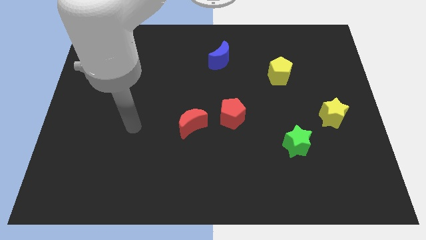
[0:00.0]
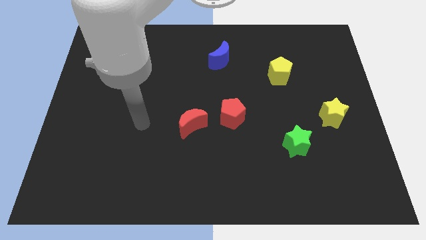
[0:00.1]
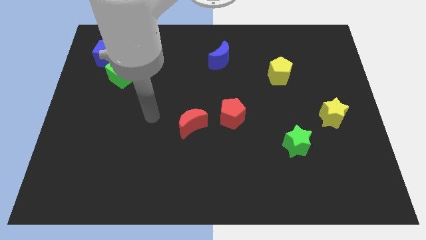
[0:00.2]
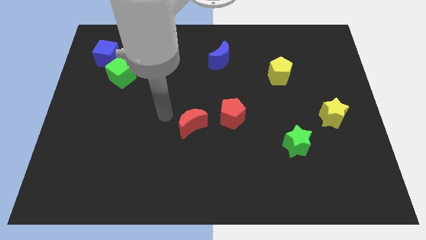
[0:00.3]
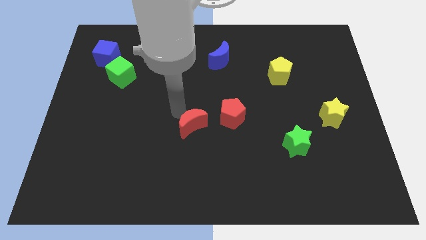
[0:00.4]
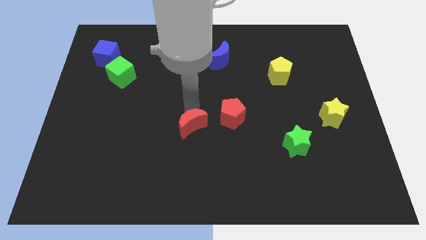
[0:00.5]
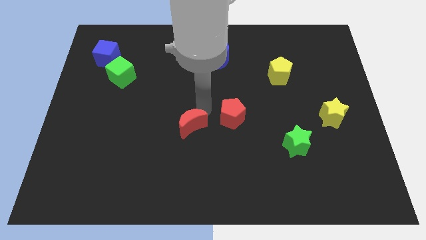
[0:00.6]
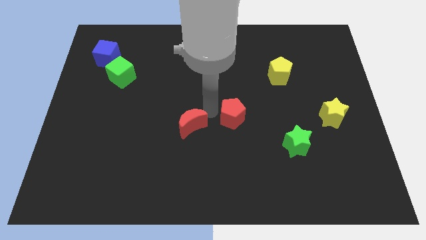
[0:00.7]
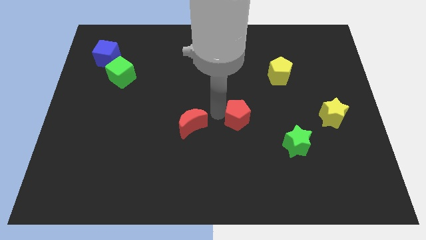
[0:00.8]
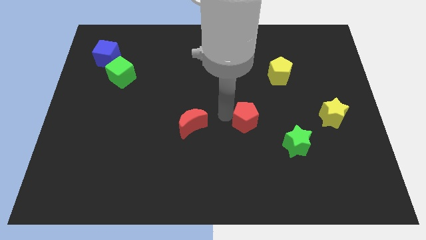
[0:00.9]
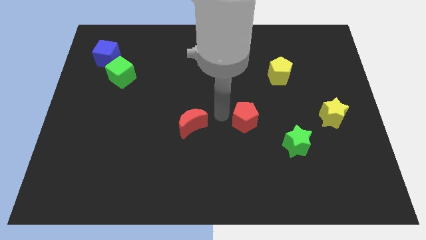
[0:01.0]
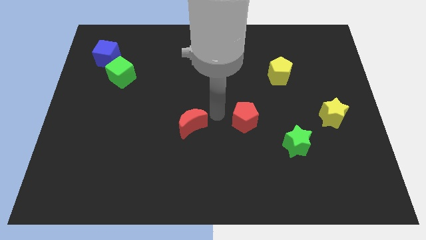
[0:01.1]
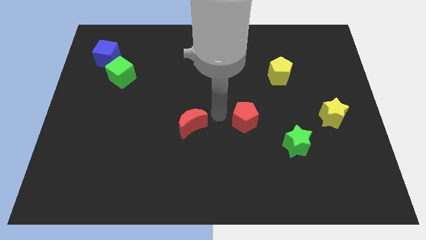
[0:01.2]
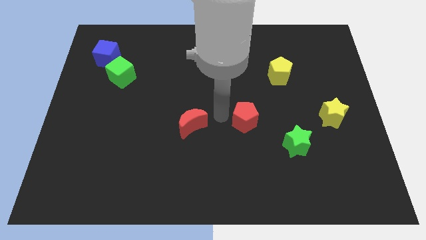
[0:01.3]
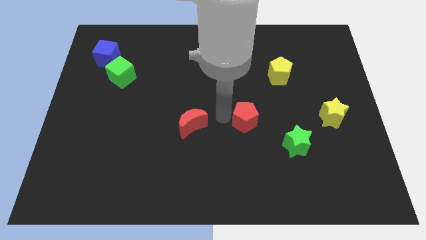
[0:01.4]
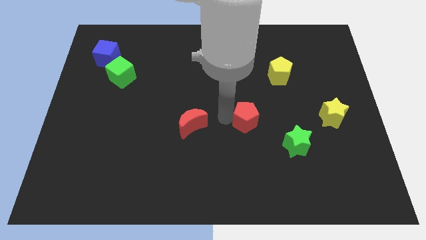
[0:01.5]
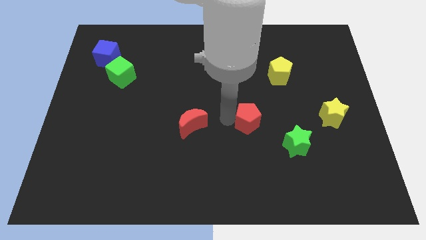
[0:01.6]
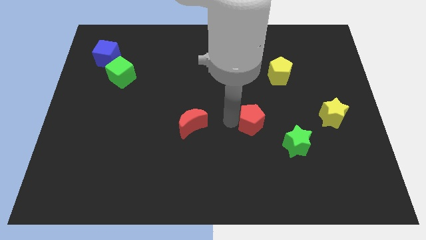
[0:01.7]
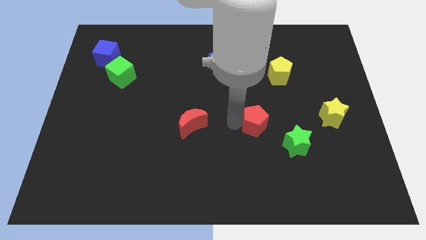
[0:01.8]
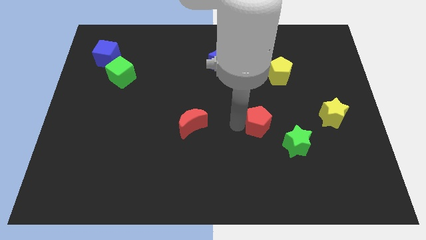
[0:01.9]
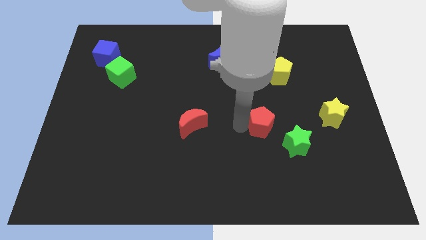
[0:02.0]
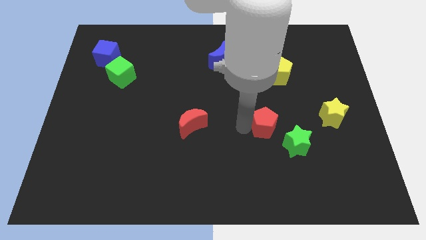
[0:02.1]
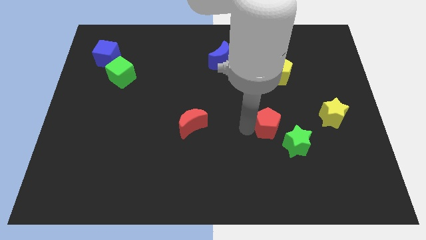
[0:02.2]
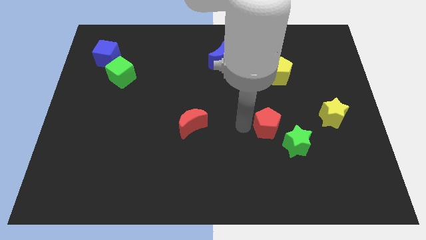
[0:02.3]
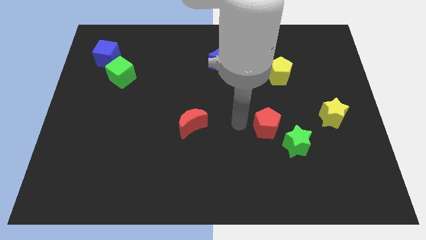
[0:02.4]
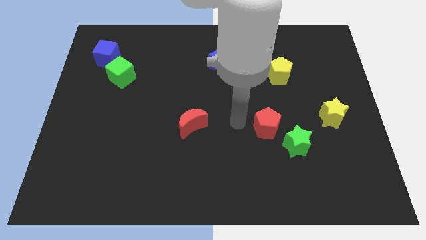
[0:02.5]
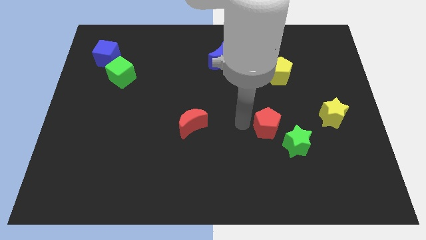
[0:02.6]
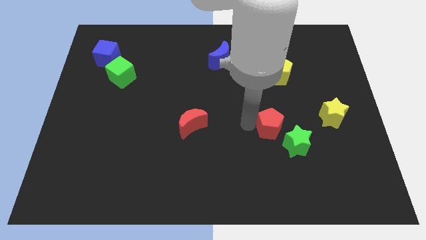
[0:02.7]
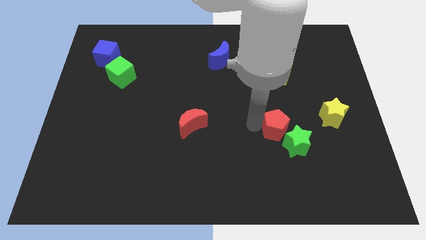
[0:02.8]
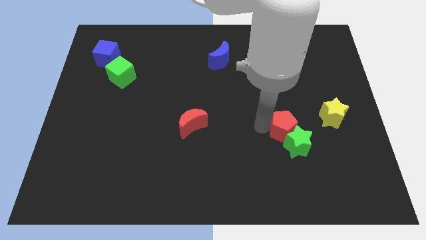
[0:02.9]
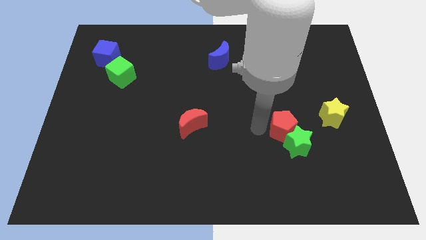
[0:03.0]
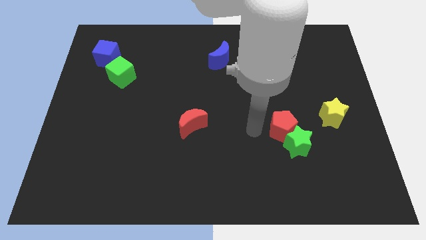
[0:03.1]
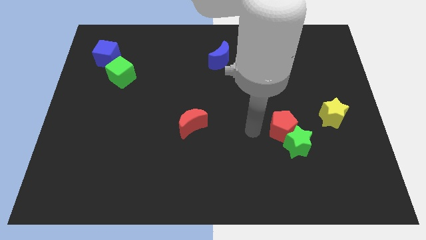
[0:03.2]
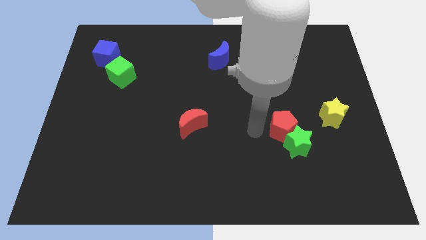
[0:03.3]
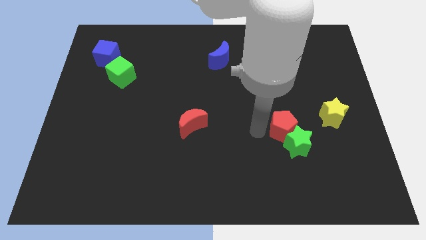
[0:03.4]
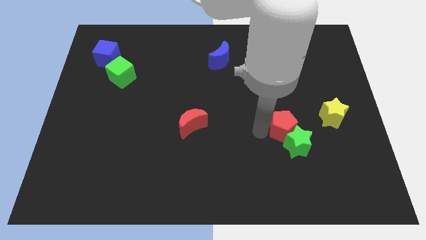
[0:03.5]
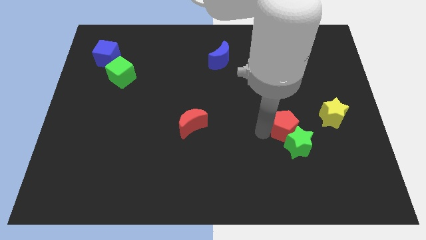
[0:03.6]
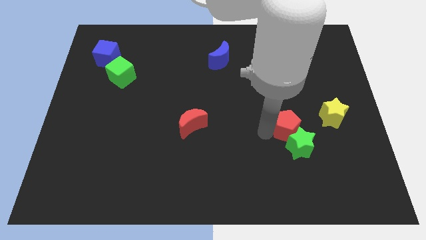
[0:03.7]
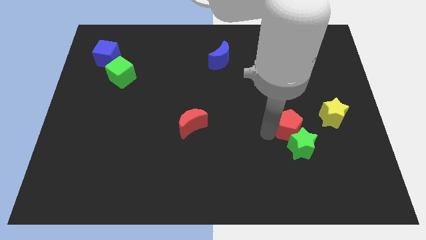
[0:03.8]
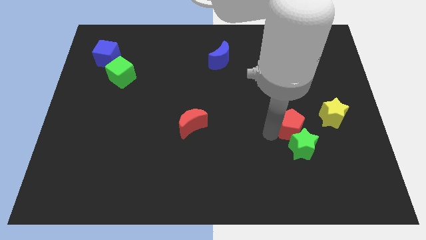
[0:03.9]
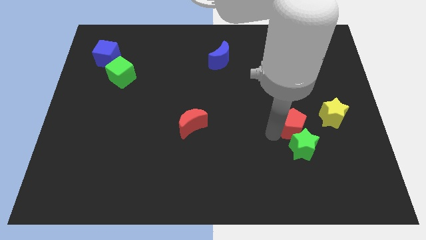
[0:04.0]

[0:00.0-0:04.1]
move the red pentagon diagonally down and to the left of the yellow star

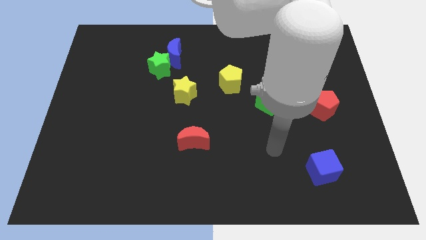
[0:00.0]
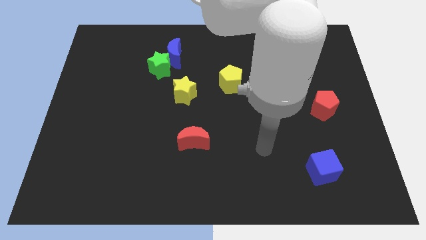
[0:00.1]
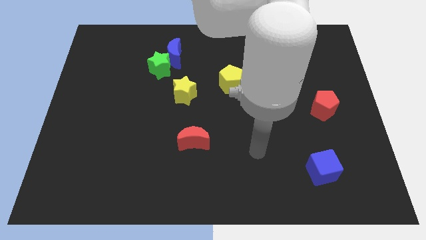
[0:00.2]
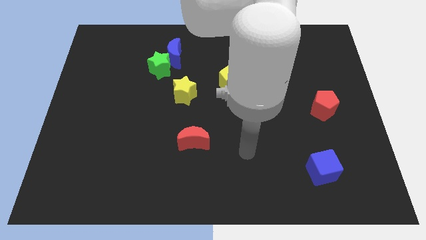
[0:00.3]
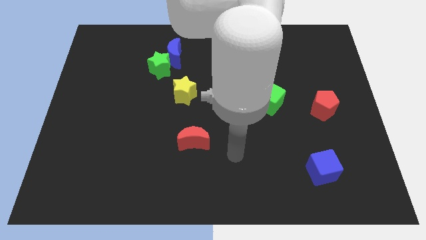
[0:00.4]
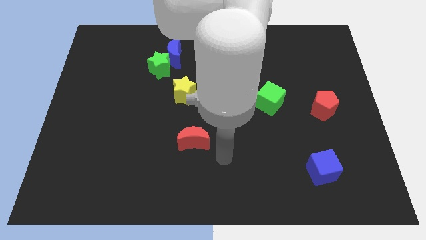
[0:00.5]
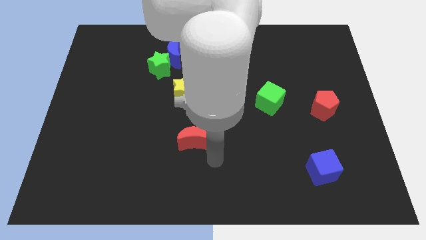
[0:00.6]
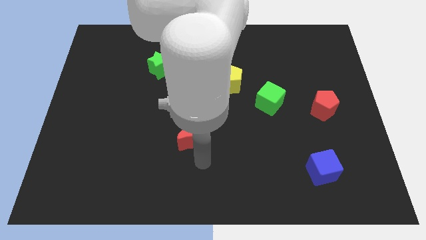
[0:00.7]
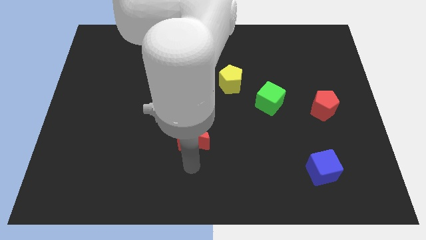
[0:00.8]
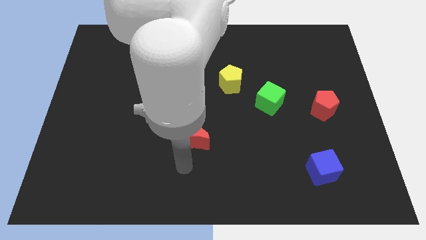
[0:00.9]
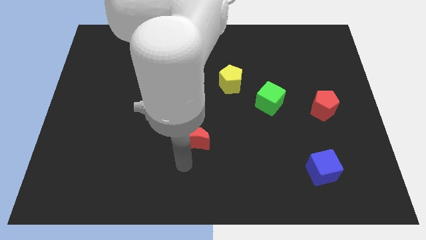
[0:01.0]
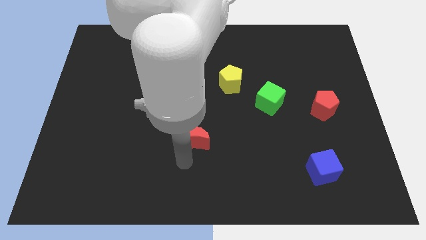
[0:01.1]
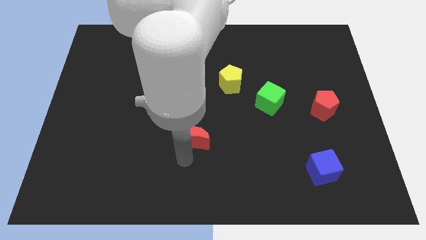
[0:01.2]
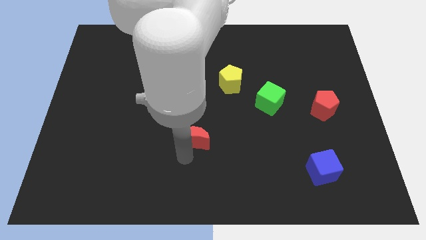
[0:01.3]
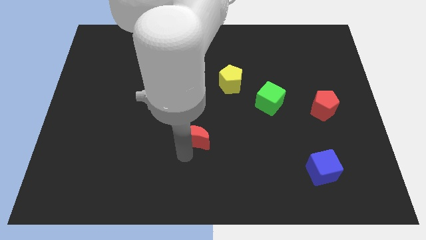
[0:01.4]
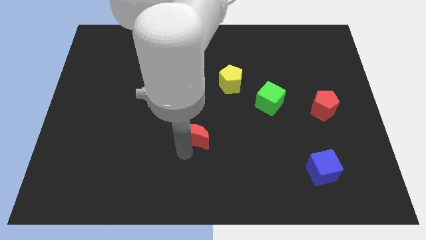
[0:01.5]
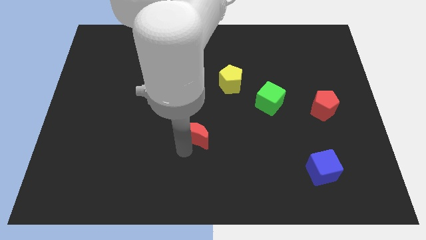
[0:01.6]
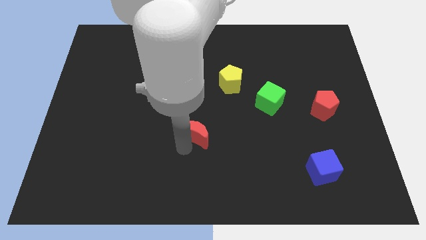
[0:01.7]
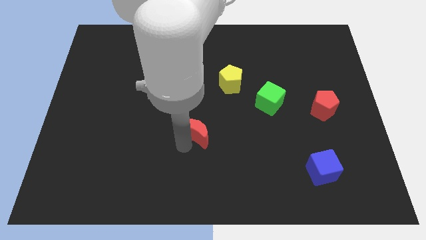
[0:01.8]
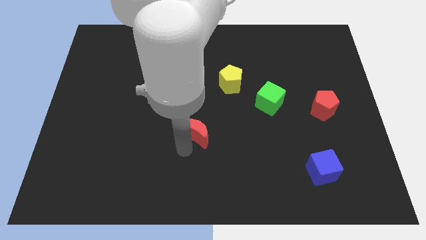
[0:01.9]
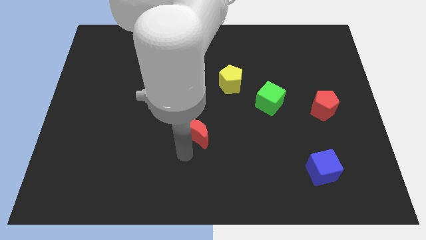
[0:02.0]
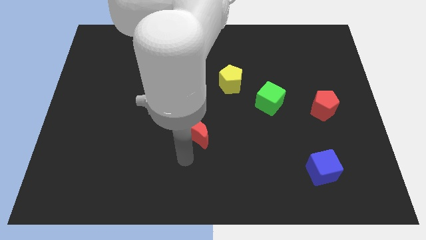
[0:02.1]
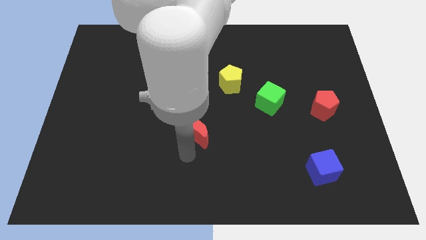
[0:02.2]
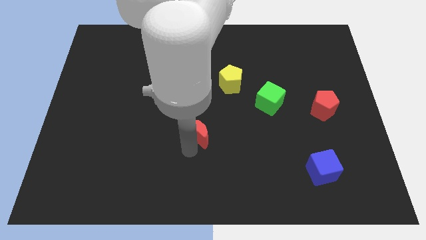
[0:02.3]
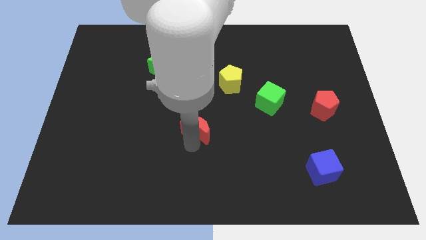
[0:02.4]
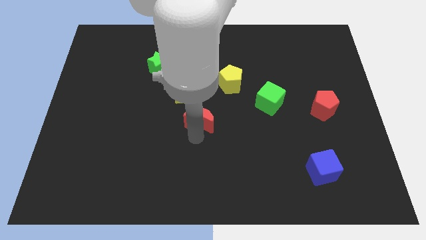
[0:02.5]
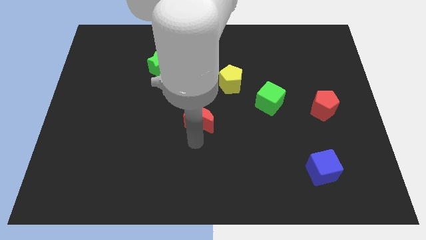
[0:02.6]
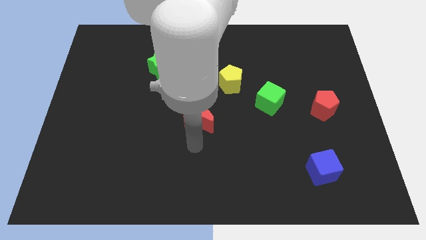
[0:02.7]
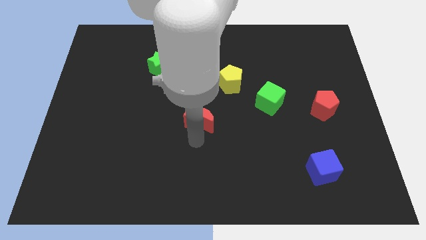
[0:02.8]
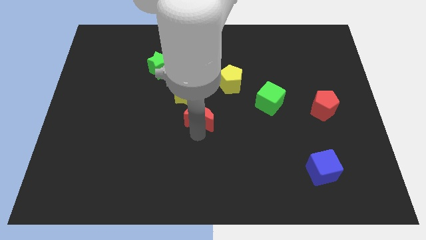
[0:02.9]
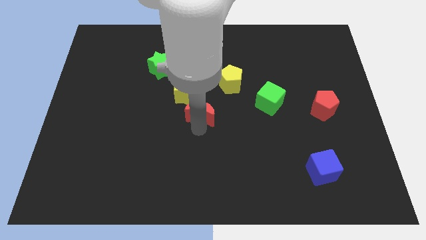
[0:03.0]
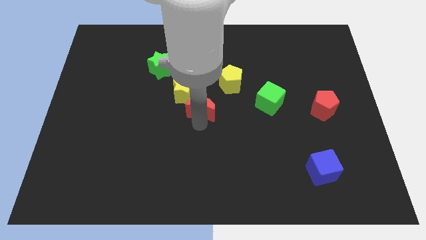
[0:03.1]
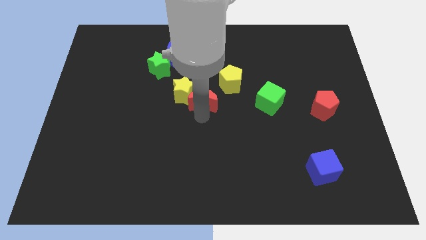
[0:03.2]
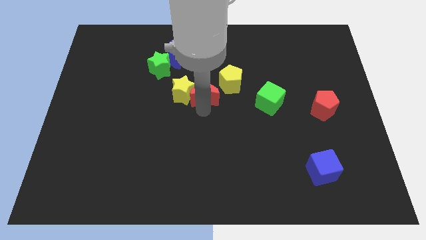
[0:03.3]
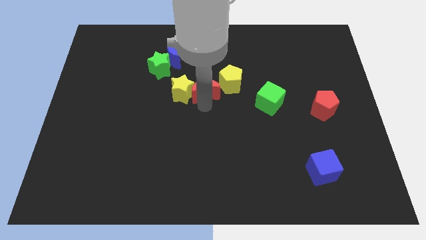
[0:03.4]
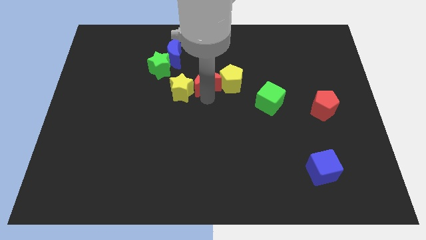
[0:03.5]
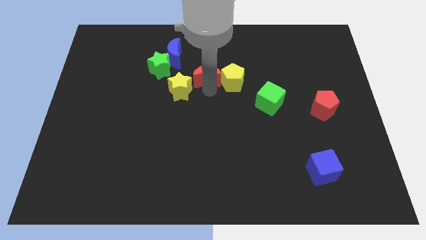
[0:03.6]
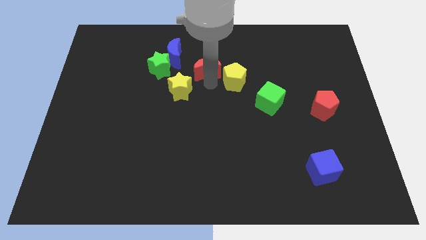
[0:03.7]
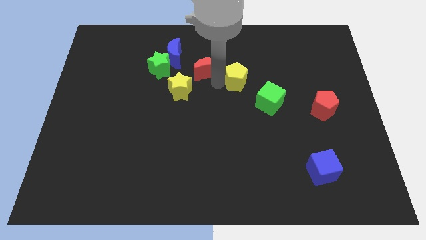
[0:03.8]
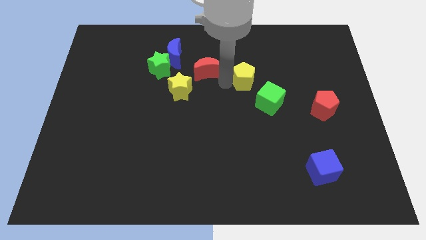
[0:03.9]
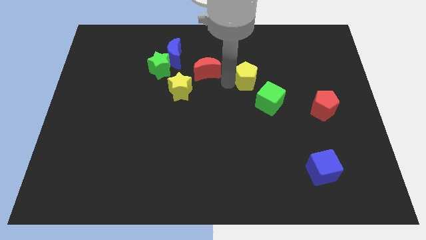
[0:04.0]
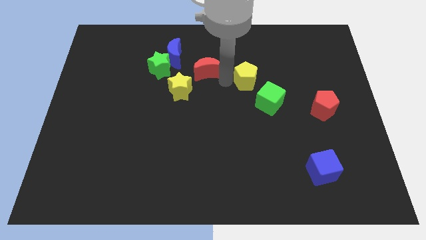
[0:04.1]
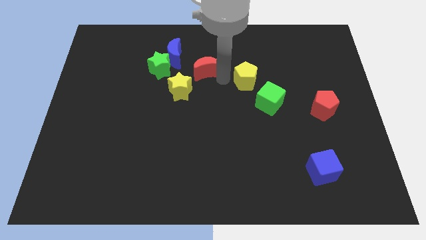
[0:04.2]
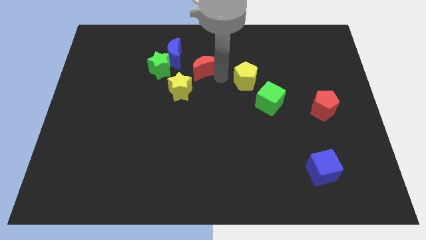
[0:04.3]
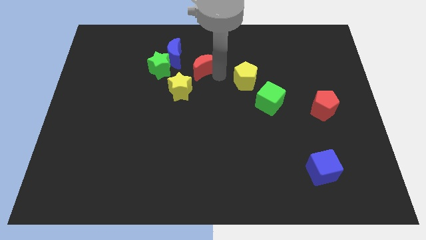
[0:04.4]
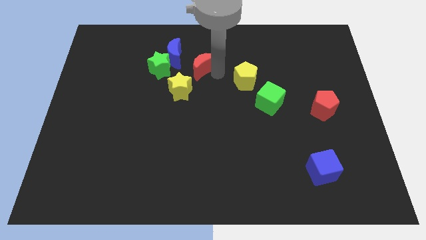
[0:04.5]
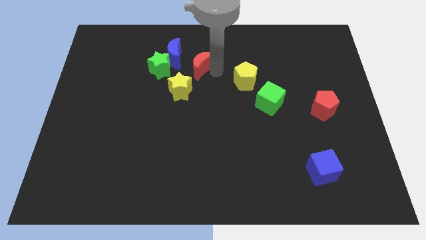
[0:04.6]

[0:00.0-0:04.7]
move the red moon to the top of the yellow star
